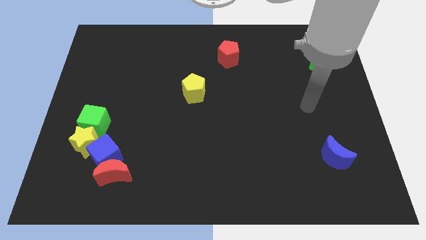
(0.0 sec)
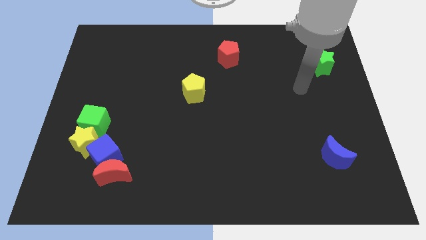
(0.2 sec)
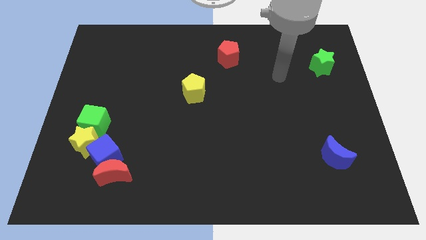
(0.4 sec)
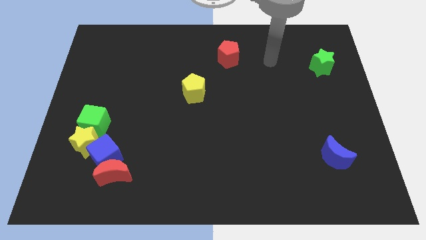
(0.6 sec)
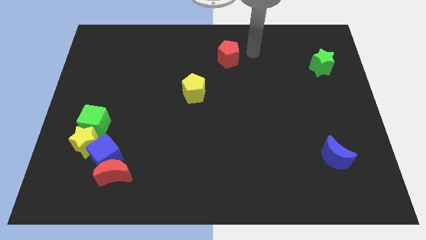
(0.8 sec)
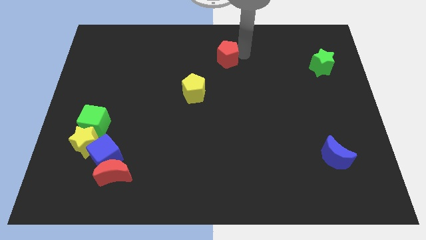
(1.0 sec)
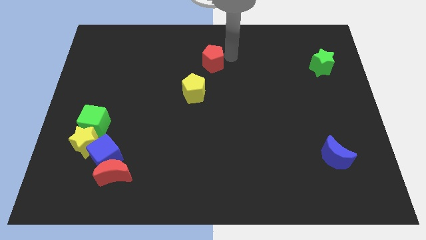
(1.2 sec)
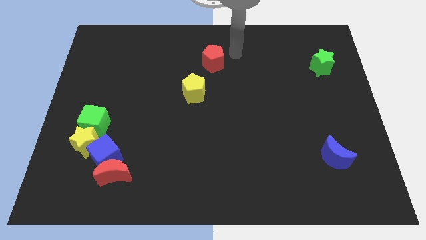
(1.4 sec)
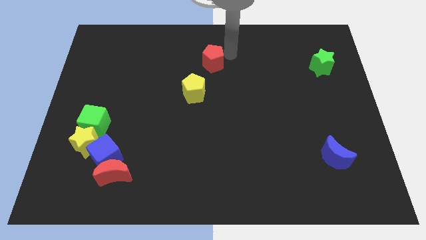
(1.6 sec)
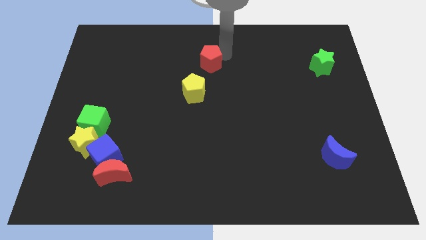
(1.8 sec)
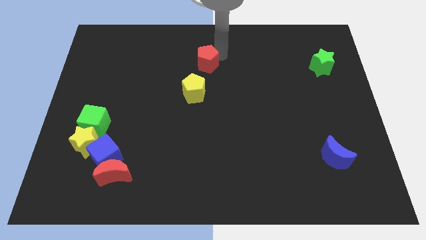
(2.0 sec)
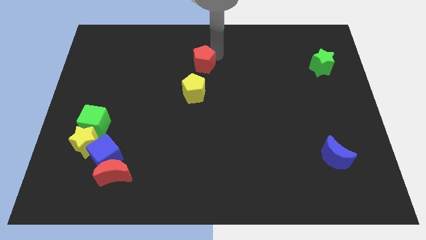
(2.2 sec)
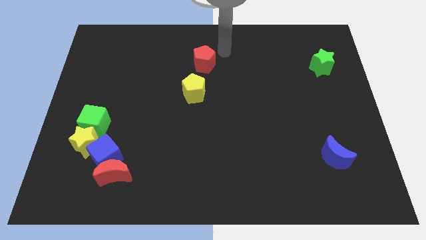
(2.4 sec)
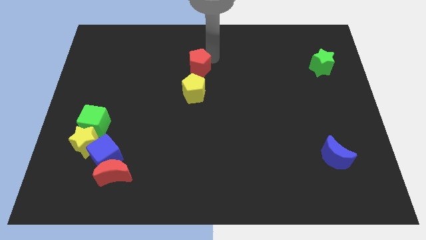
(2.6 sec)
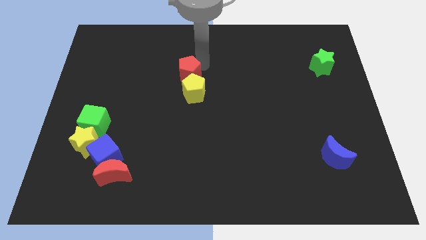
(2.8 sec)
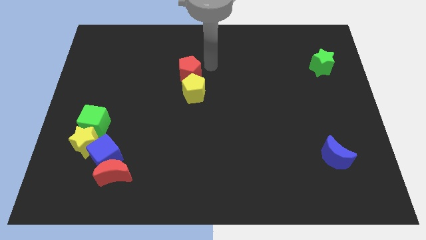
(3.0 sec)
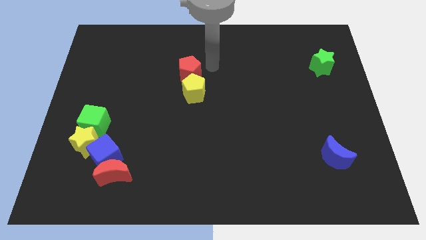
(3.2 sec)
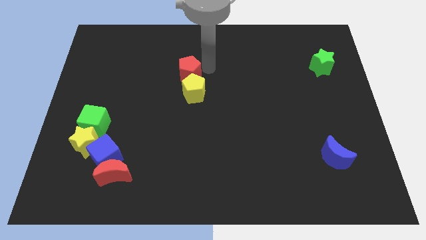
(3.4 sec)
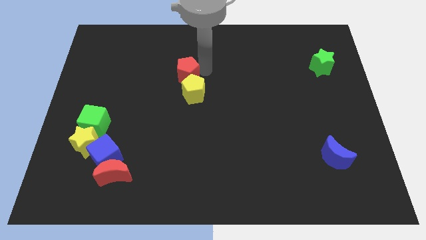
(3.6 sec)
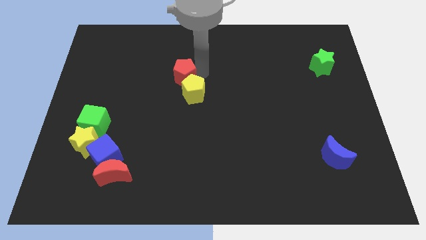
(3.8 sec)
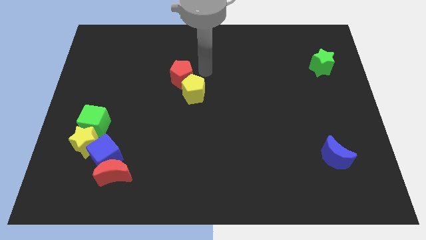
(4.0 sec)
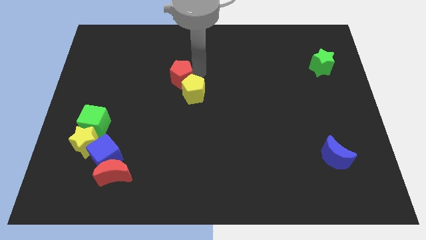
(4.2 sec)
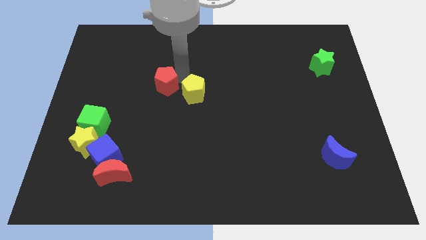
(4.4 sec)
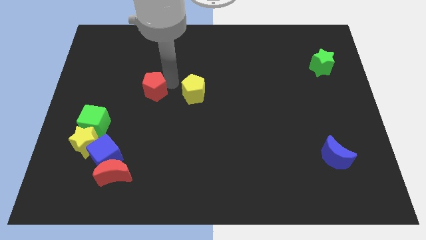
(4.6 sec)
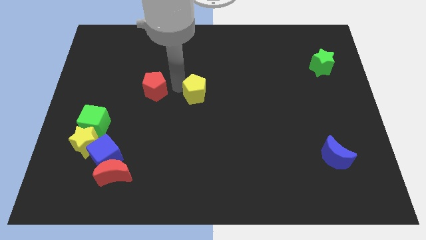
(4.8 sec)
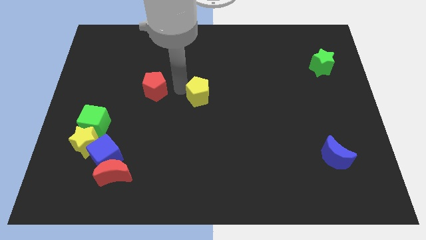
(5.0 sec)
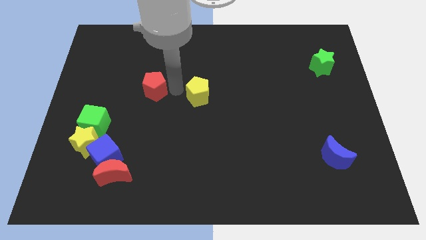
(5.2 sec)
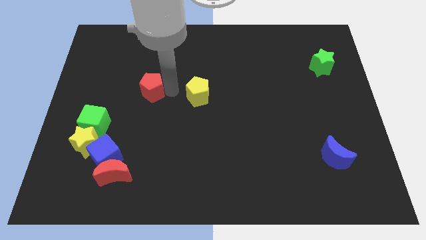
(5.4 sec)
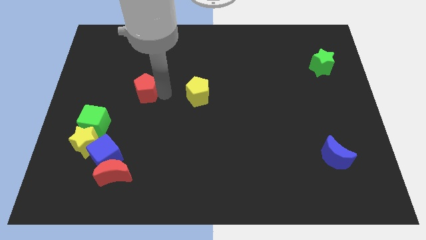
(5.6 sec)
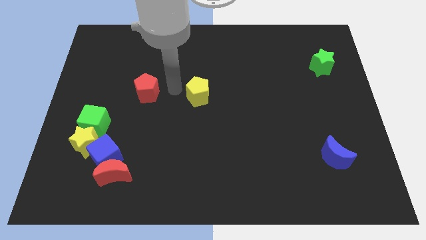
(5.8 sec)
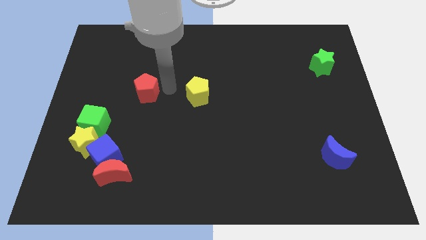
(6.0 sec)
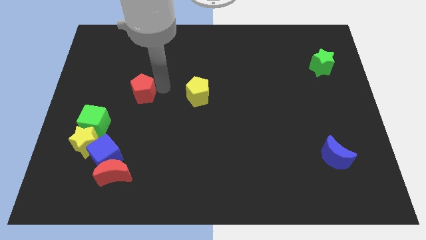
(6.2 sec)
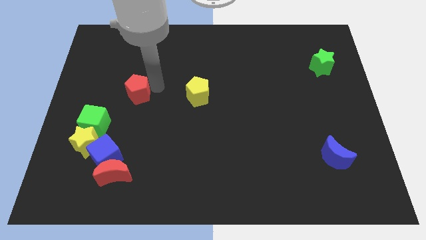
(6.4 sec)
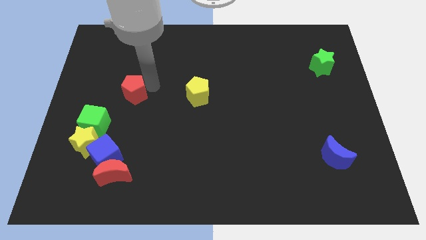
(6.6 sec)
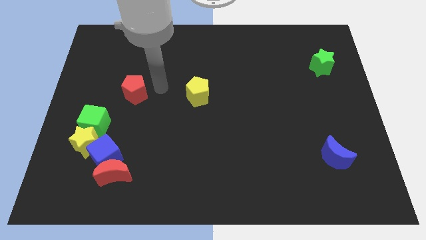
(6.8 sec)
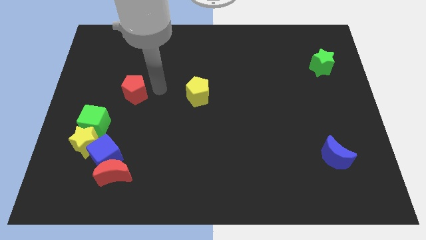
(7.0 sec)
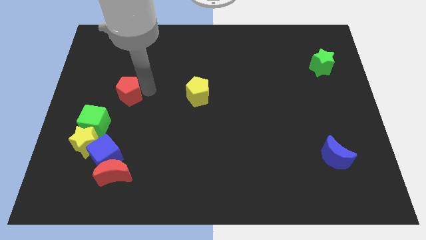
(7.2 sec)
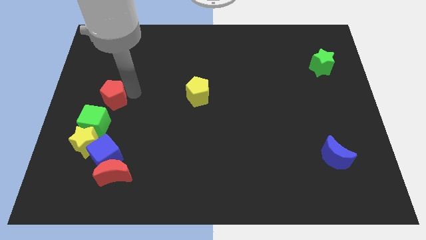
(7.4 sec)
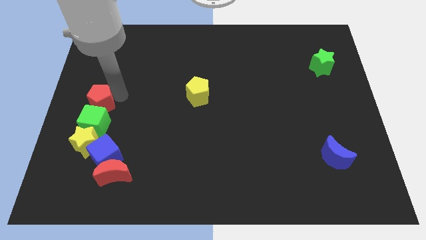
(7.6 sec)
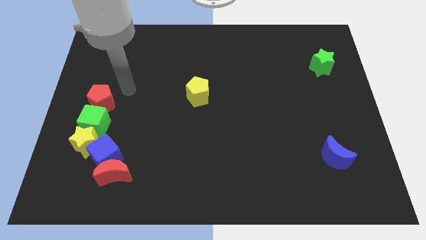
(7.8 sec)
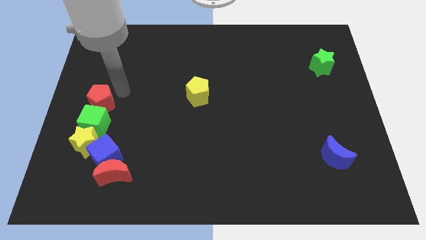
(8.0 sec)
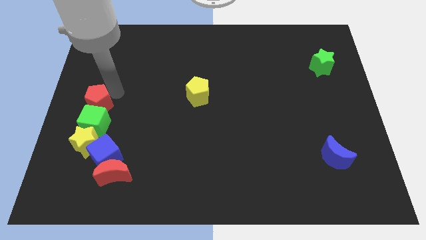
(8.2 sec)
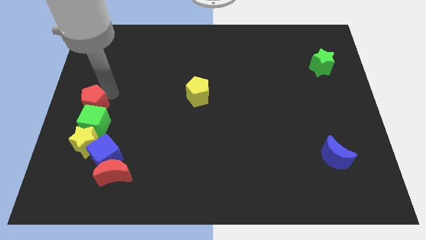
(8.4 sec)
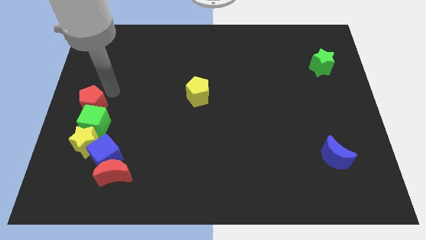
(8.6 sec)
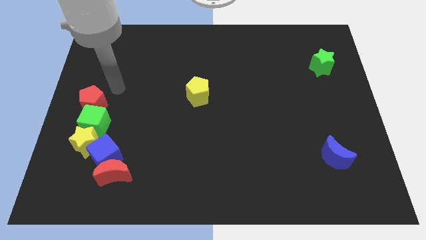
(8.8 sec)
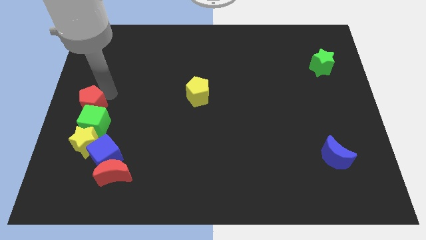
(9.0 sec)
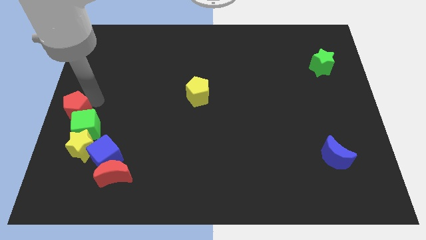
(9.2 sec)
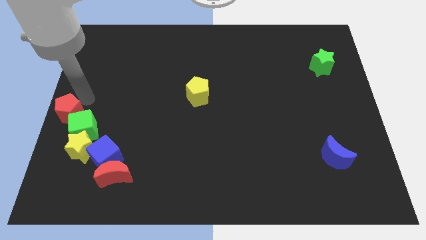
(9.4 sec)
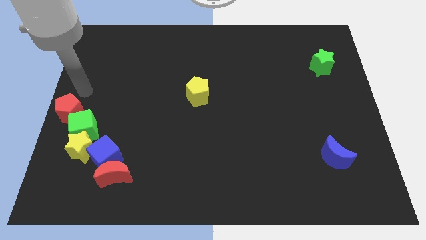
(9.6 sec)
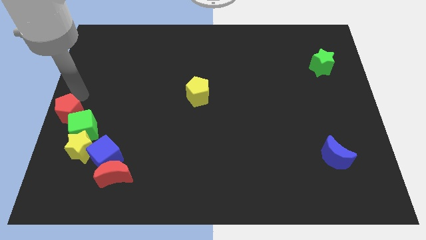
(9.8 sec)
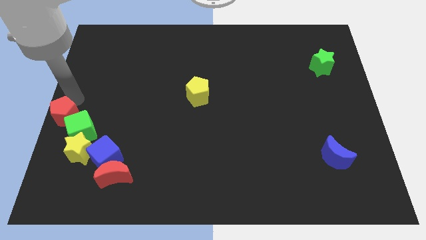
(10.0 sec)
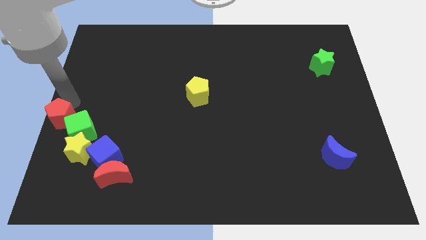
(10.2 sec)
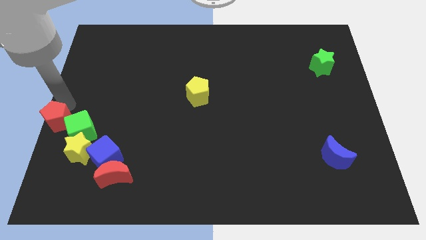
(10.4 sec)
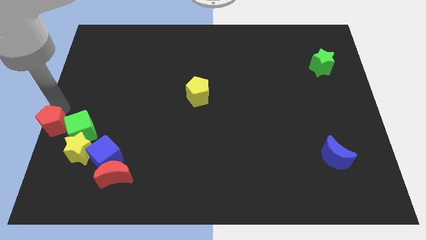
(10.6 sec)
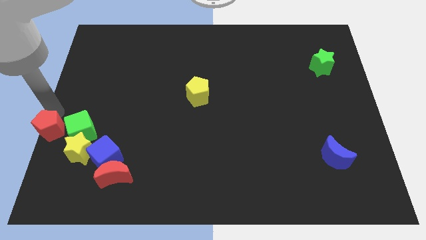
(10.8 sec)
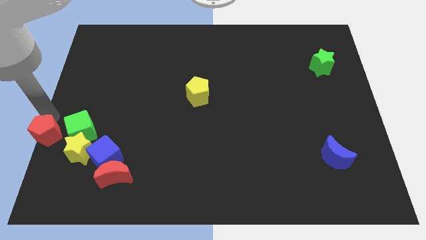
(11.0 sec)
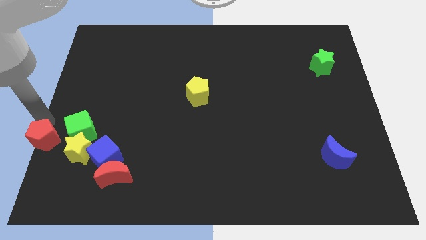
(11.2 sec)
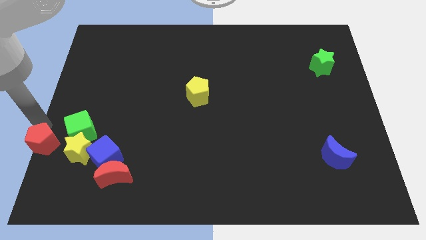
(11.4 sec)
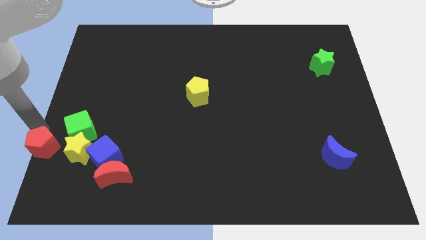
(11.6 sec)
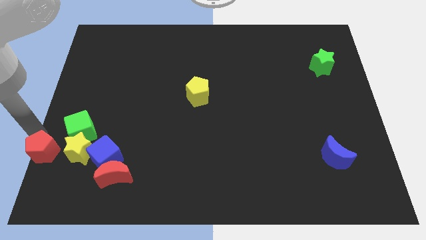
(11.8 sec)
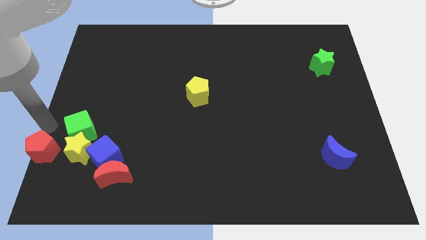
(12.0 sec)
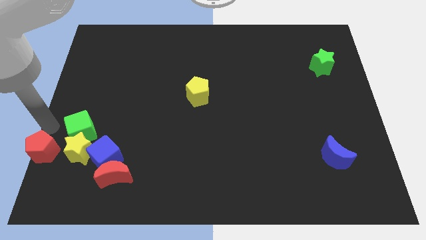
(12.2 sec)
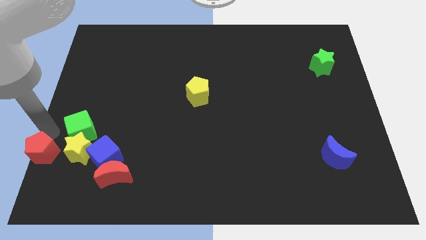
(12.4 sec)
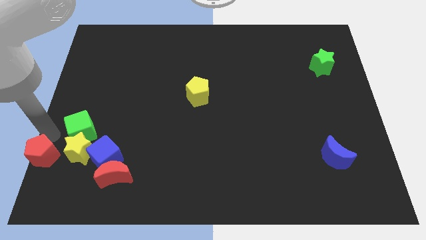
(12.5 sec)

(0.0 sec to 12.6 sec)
move the red pentagon to the bottom left corner
